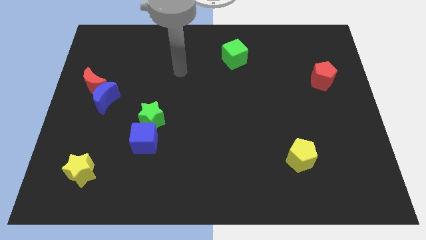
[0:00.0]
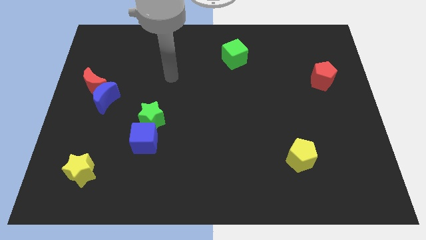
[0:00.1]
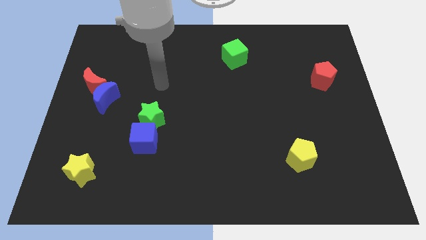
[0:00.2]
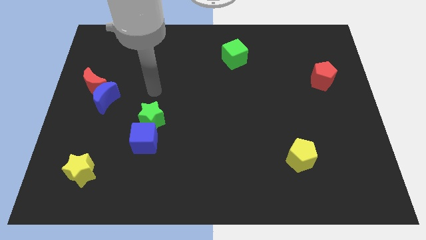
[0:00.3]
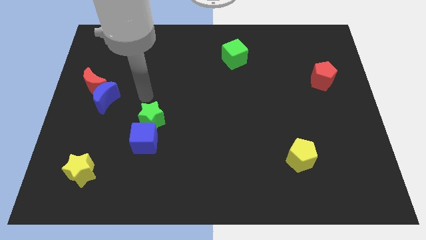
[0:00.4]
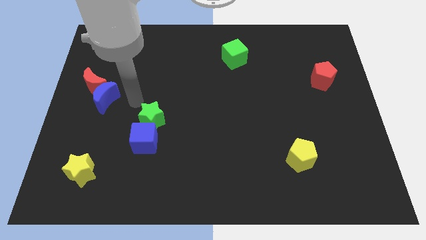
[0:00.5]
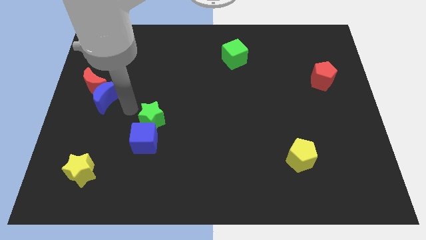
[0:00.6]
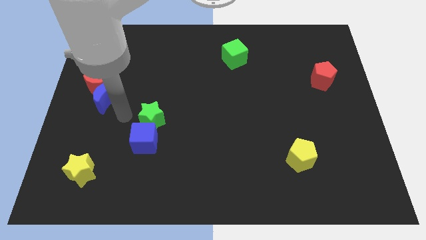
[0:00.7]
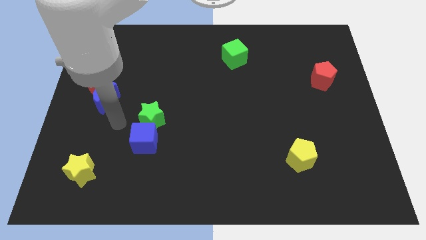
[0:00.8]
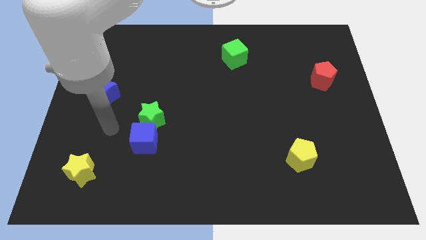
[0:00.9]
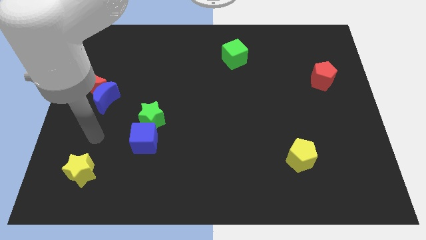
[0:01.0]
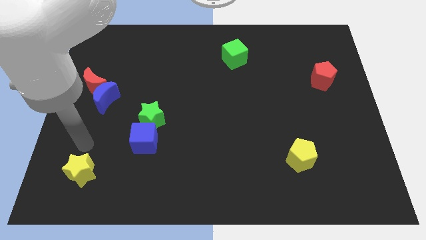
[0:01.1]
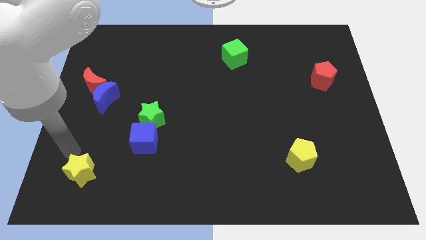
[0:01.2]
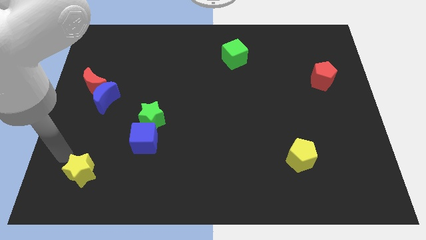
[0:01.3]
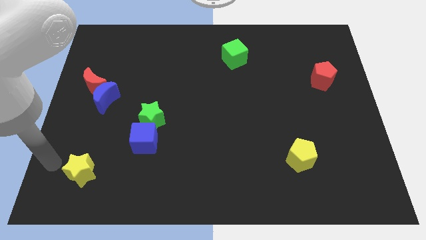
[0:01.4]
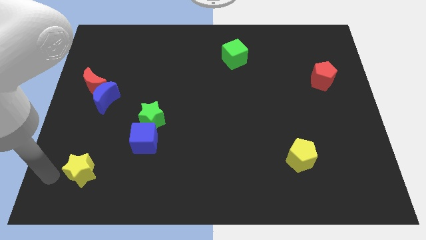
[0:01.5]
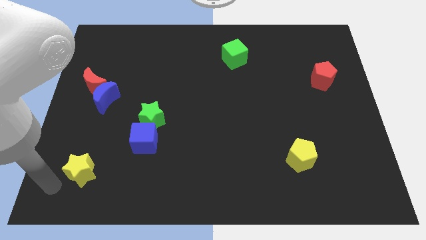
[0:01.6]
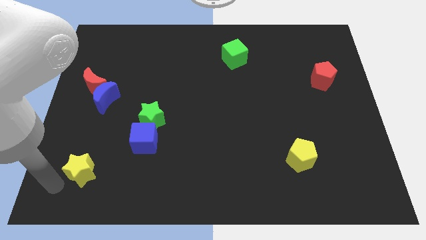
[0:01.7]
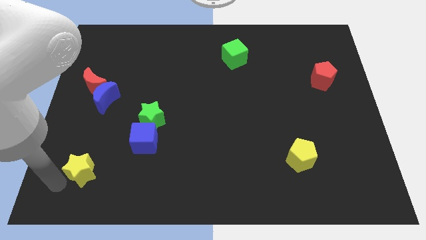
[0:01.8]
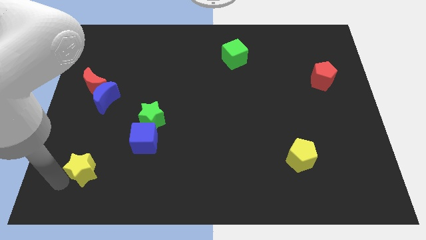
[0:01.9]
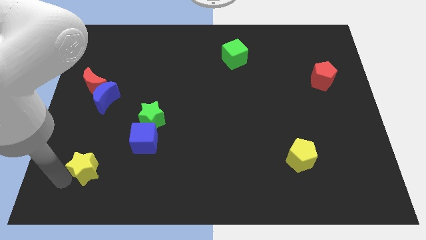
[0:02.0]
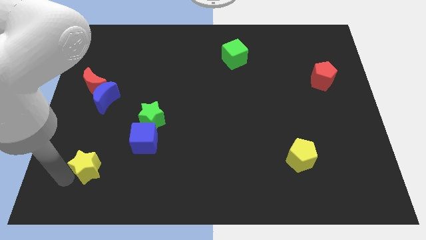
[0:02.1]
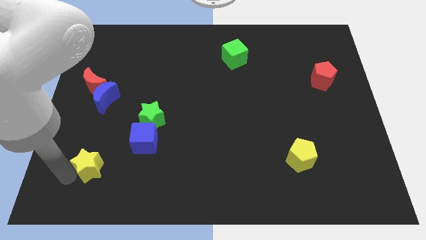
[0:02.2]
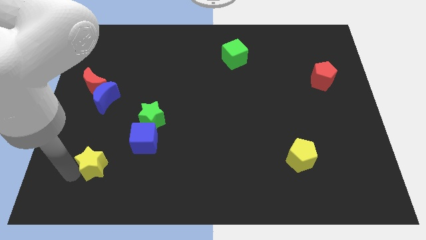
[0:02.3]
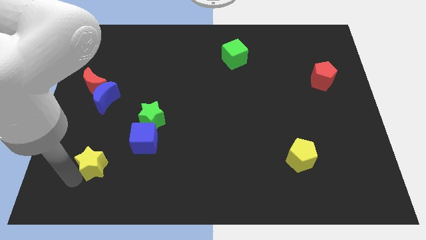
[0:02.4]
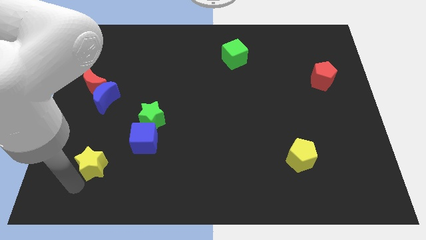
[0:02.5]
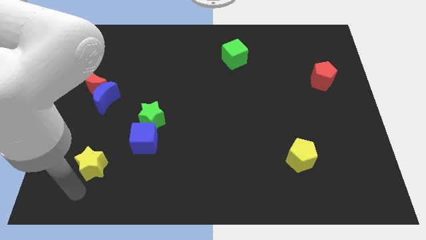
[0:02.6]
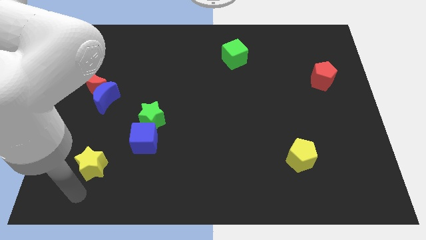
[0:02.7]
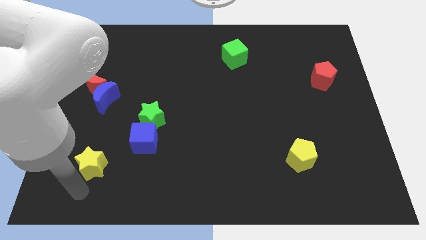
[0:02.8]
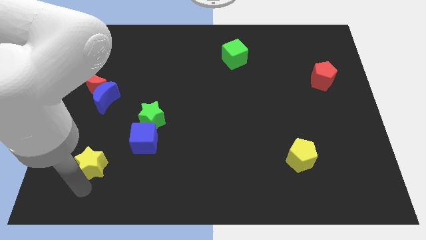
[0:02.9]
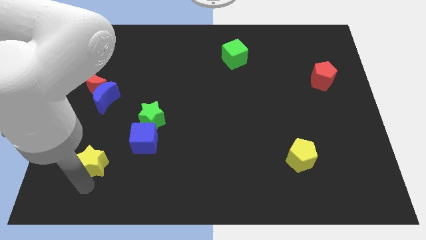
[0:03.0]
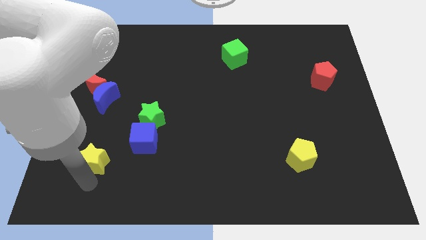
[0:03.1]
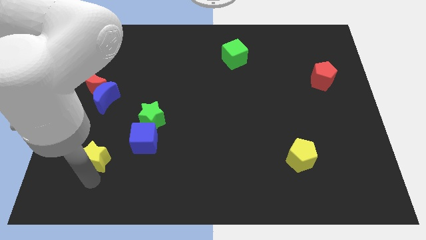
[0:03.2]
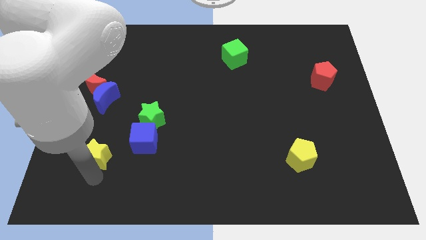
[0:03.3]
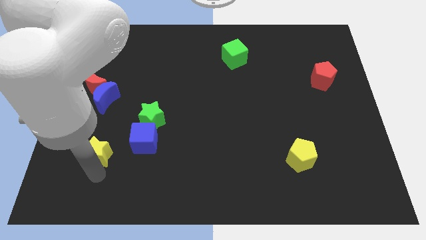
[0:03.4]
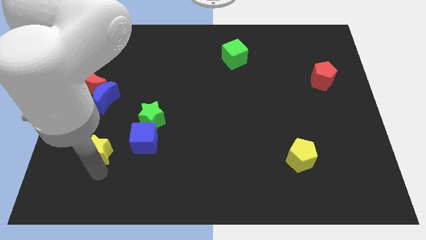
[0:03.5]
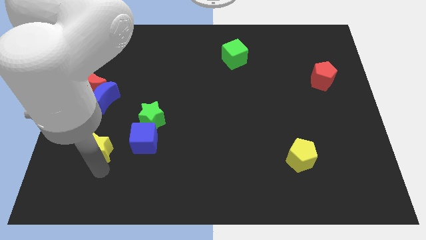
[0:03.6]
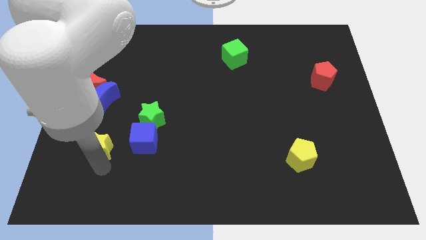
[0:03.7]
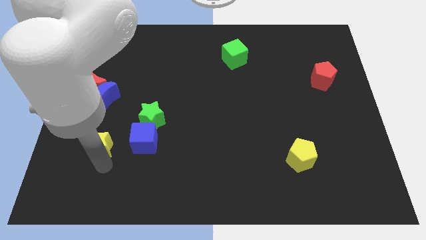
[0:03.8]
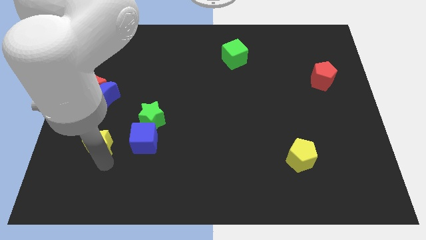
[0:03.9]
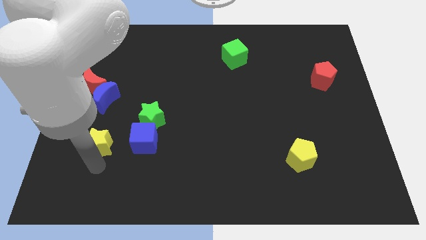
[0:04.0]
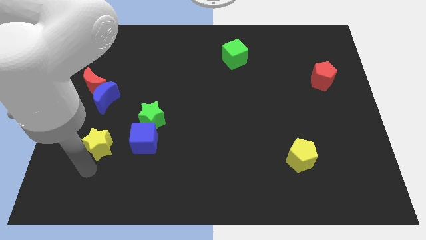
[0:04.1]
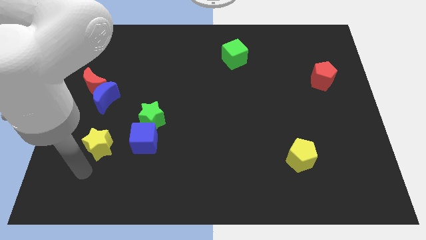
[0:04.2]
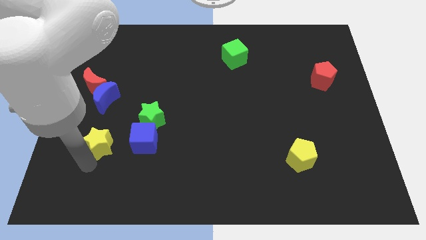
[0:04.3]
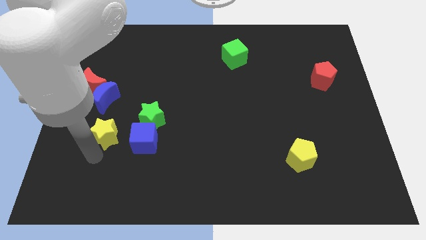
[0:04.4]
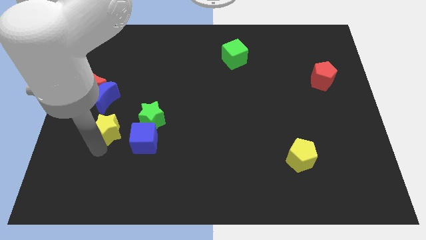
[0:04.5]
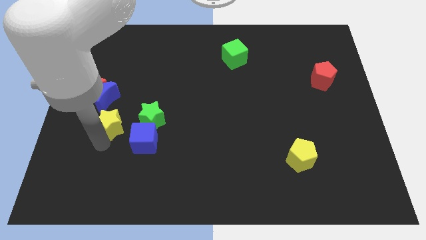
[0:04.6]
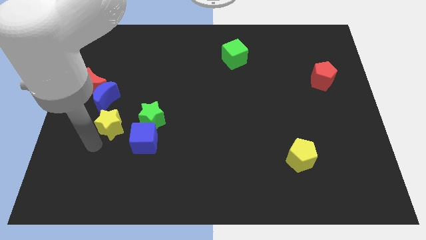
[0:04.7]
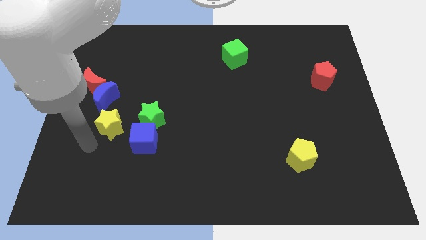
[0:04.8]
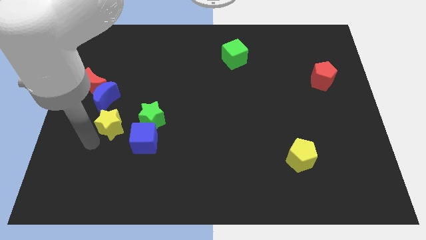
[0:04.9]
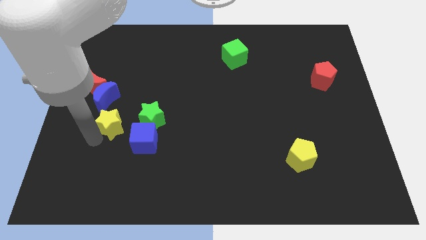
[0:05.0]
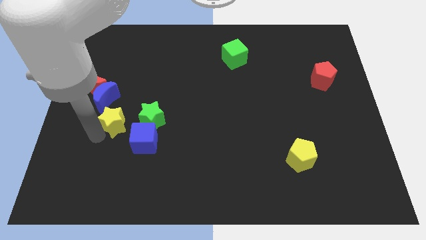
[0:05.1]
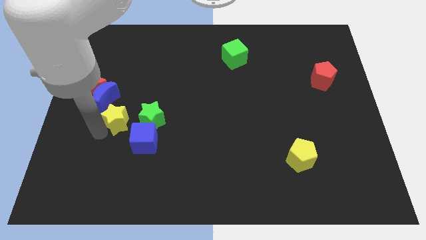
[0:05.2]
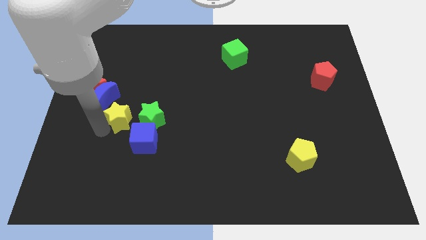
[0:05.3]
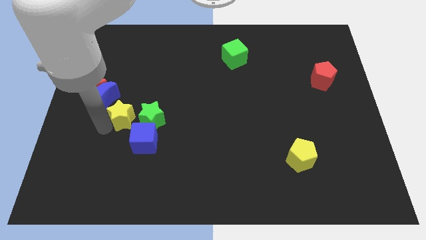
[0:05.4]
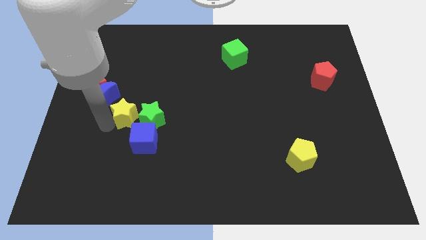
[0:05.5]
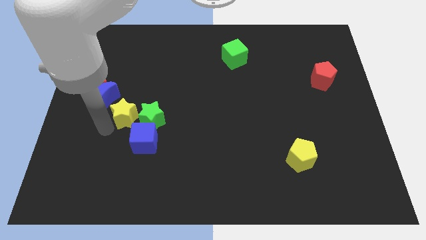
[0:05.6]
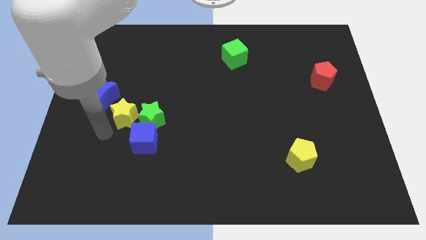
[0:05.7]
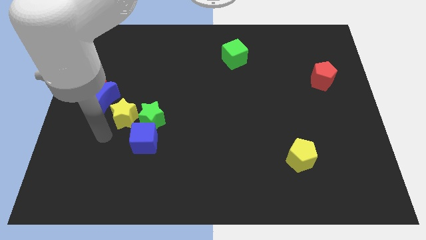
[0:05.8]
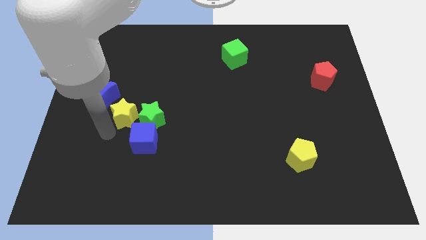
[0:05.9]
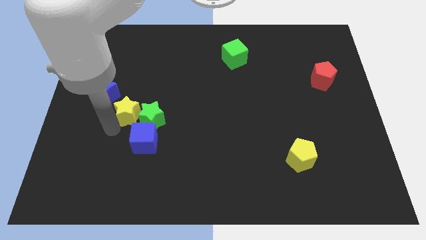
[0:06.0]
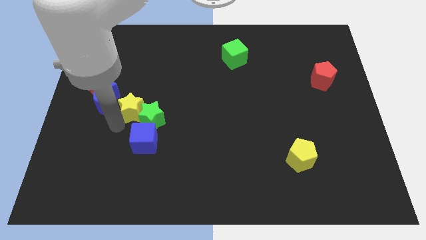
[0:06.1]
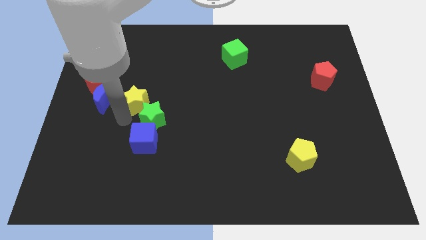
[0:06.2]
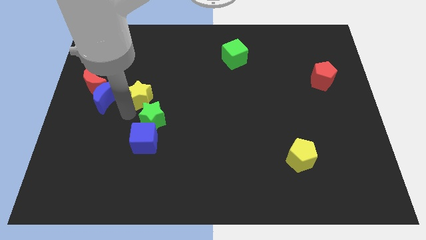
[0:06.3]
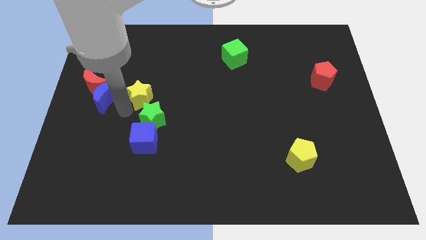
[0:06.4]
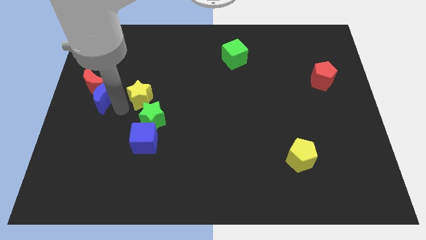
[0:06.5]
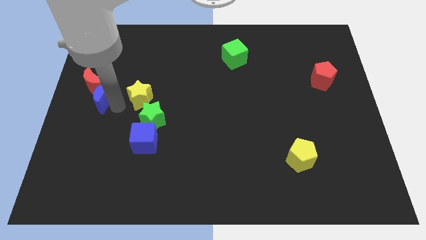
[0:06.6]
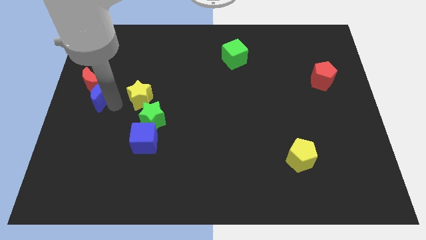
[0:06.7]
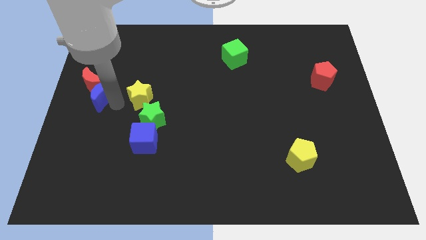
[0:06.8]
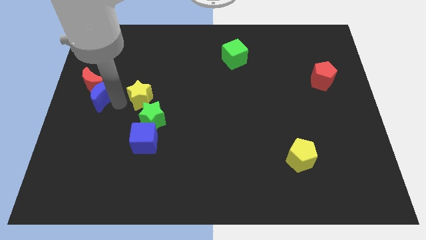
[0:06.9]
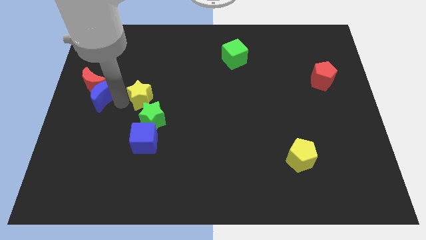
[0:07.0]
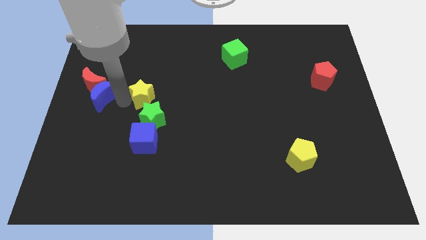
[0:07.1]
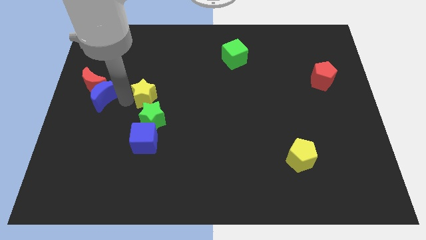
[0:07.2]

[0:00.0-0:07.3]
slide the yellow star diagonally upwards and to the right

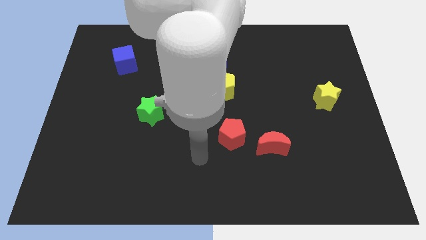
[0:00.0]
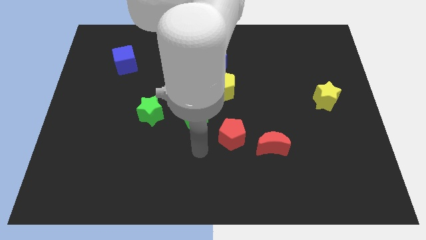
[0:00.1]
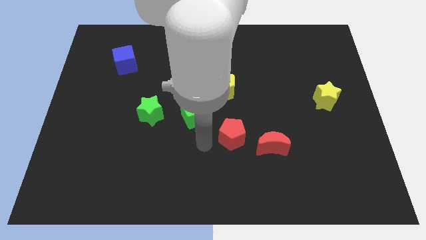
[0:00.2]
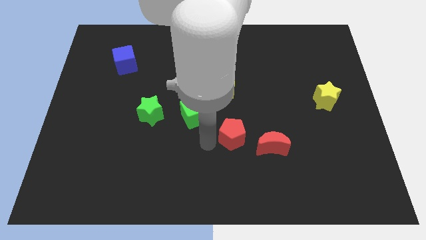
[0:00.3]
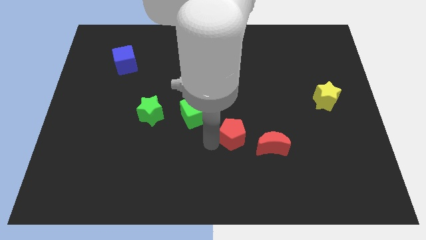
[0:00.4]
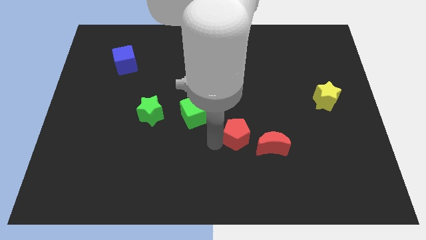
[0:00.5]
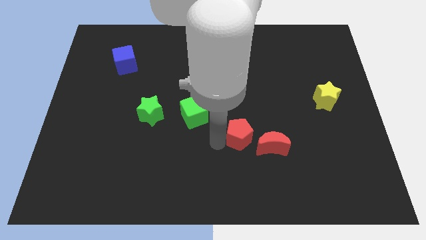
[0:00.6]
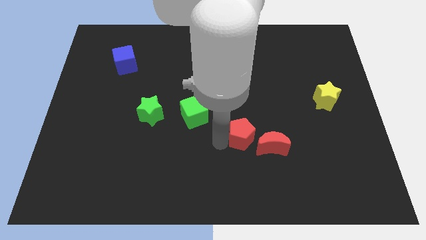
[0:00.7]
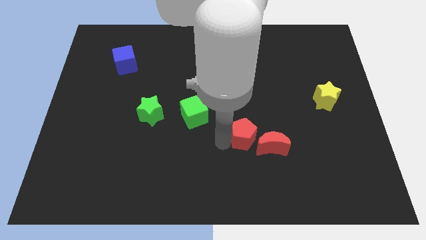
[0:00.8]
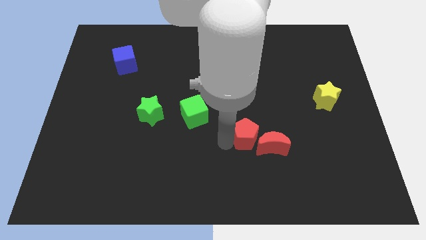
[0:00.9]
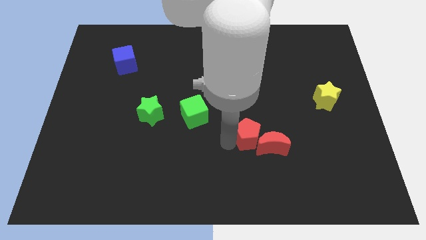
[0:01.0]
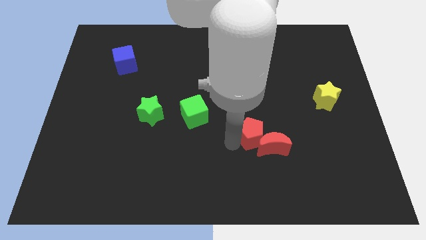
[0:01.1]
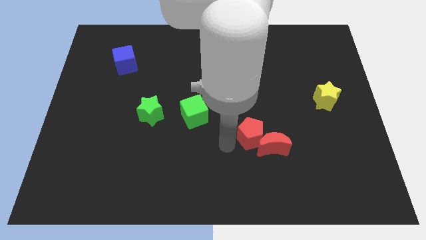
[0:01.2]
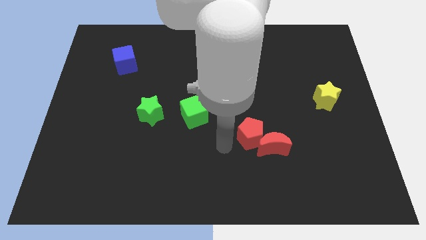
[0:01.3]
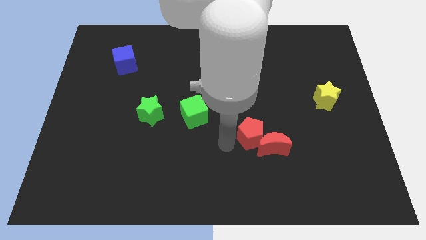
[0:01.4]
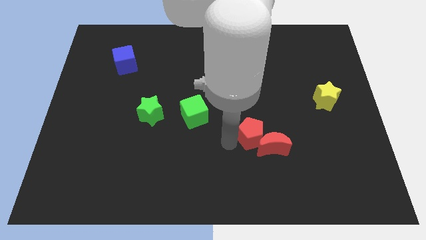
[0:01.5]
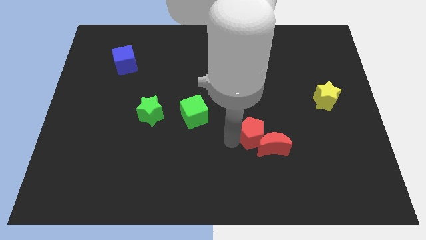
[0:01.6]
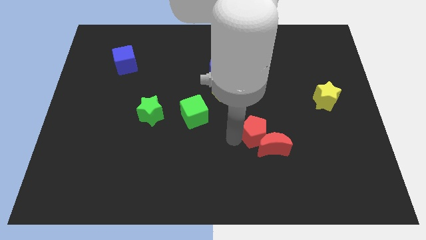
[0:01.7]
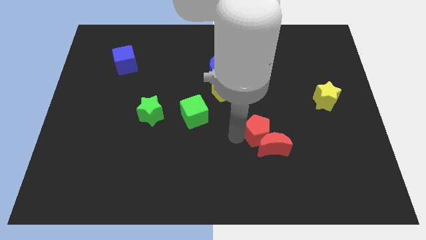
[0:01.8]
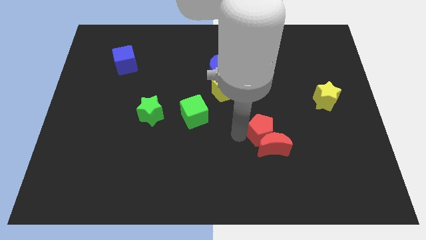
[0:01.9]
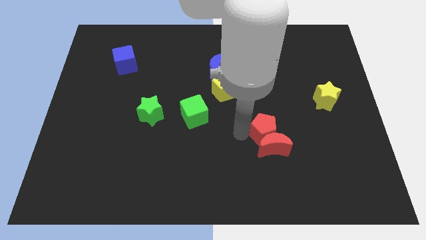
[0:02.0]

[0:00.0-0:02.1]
push the red pentagon somewhat to the right
